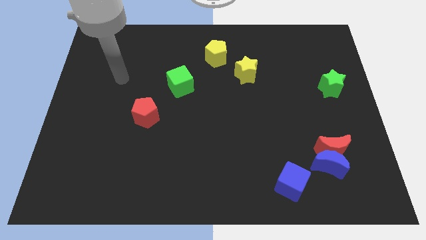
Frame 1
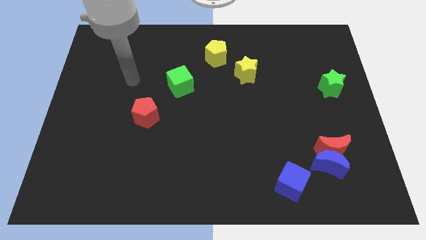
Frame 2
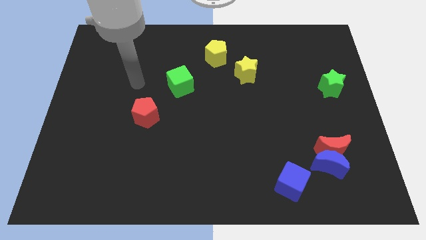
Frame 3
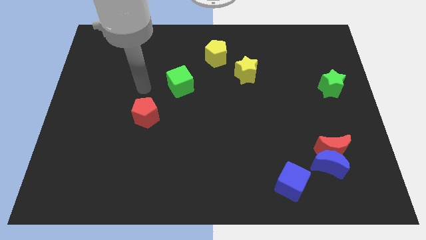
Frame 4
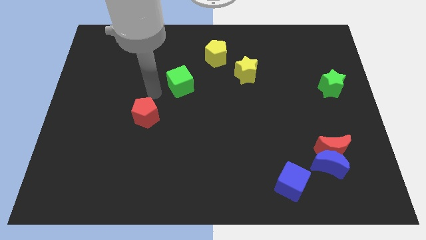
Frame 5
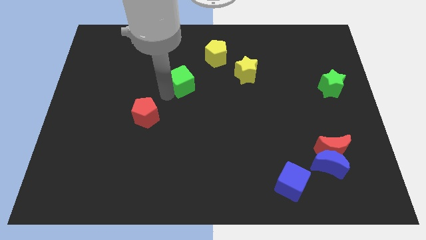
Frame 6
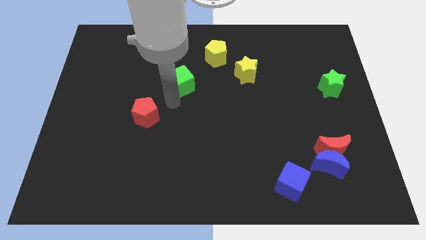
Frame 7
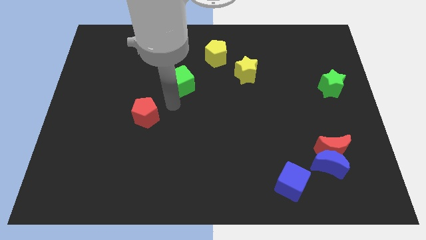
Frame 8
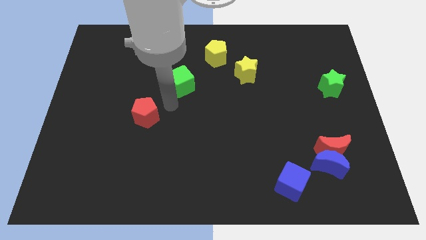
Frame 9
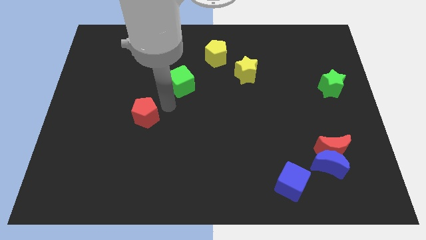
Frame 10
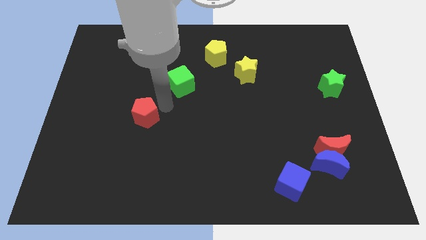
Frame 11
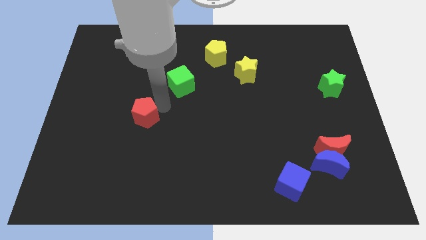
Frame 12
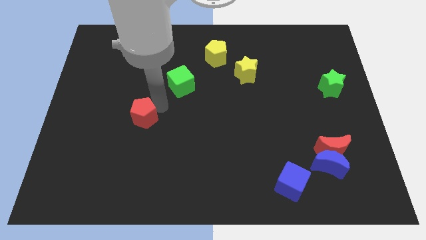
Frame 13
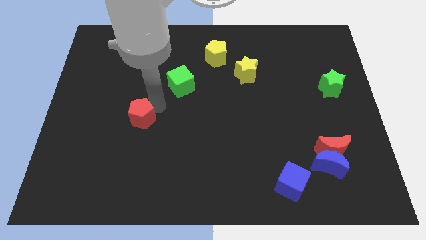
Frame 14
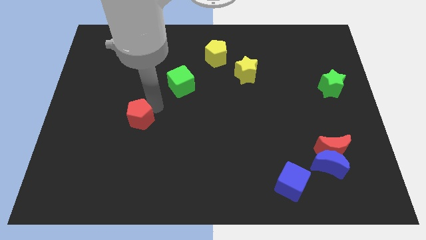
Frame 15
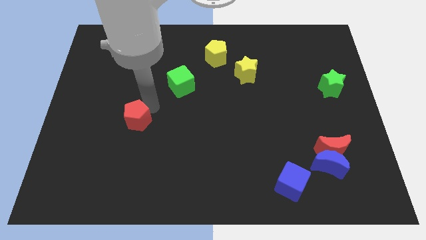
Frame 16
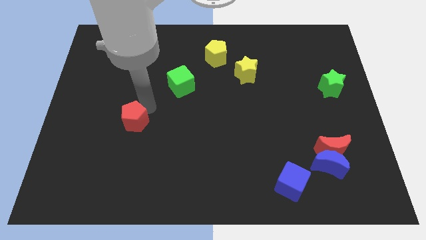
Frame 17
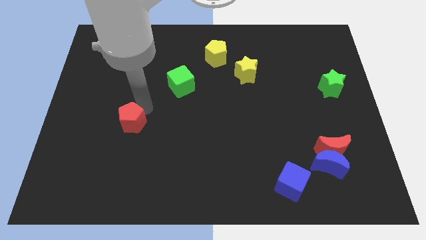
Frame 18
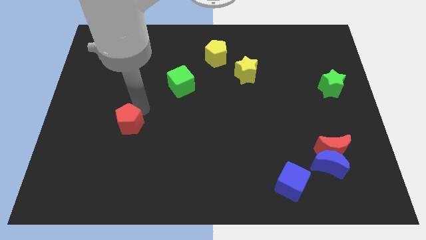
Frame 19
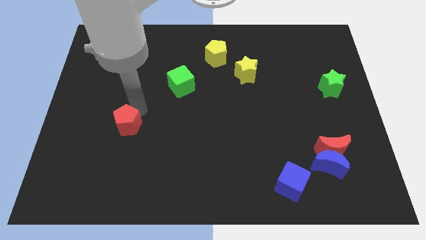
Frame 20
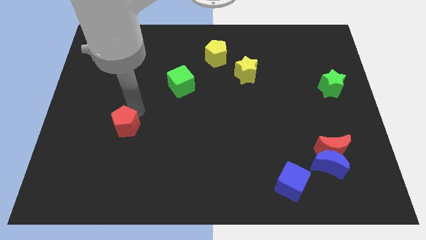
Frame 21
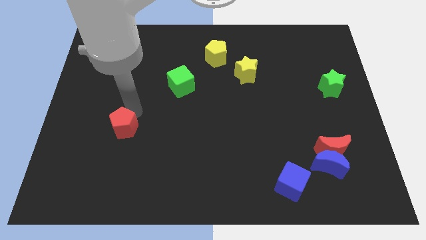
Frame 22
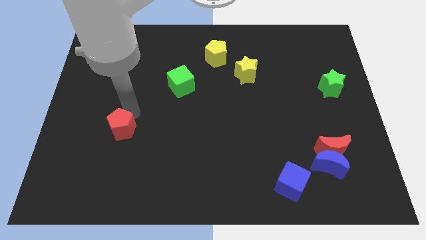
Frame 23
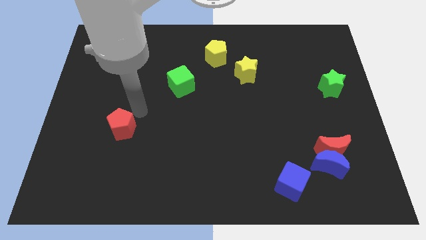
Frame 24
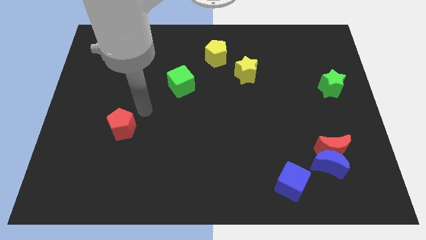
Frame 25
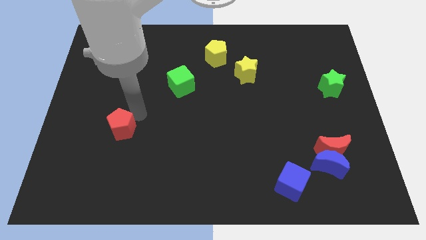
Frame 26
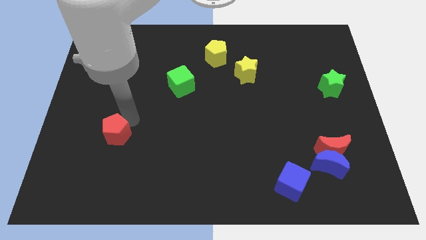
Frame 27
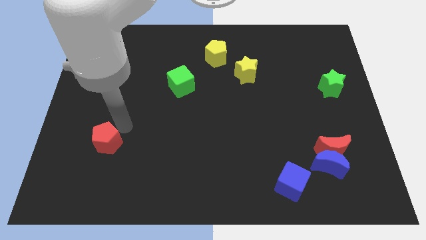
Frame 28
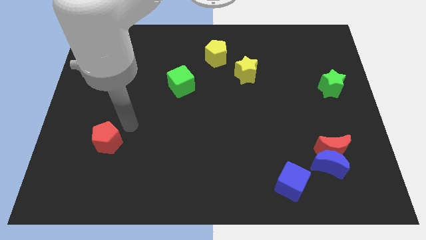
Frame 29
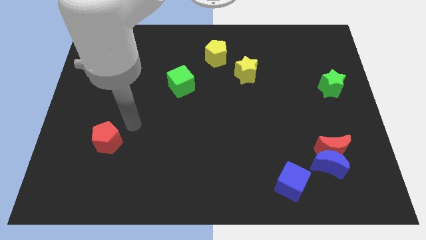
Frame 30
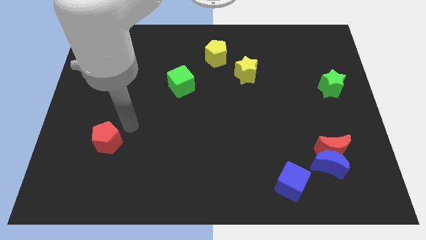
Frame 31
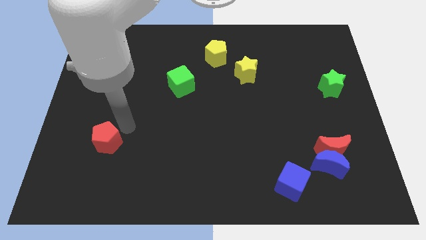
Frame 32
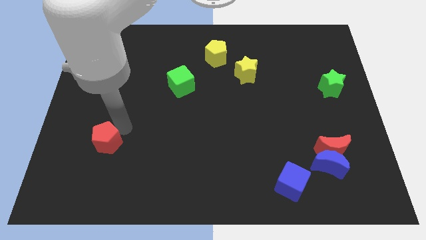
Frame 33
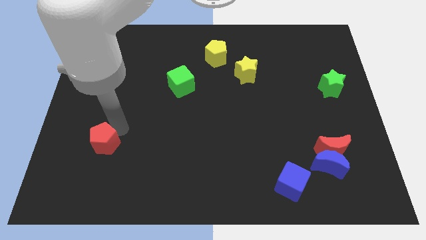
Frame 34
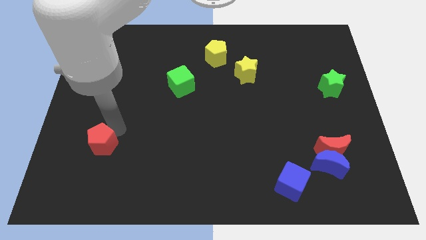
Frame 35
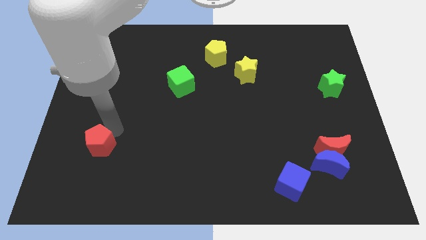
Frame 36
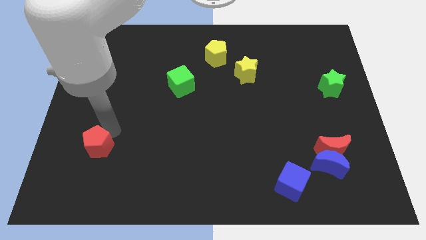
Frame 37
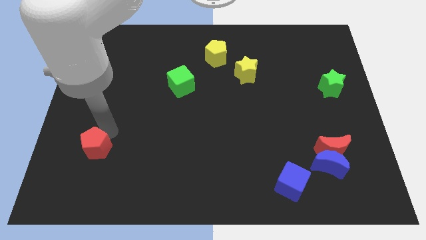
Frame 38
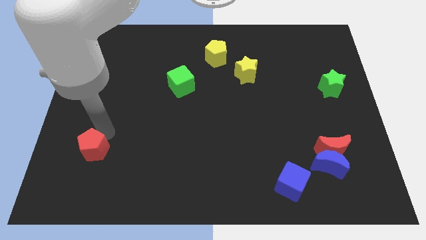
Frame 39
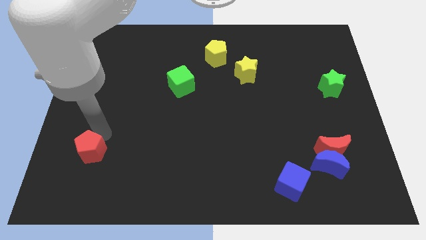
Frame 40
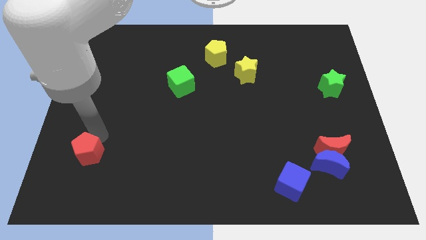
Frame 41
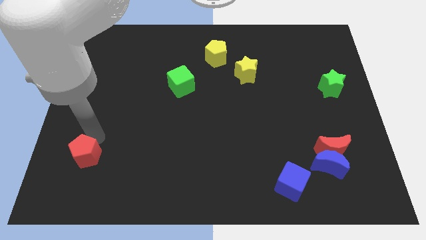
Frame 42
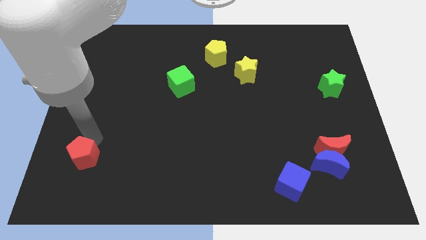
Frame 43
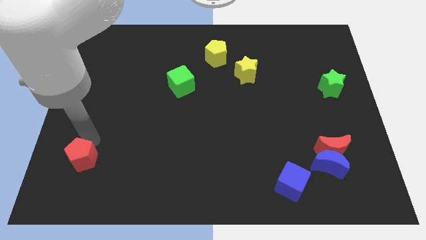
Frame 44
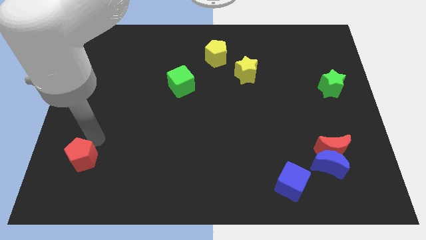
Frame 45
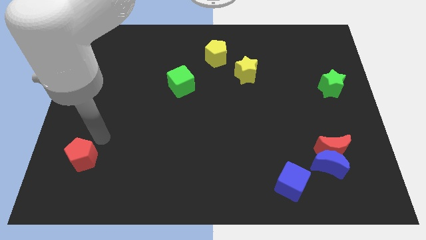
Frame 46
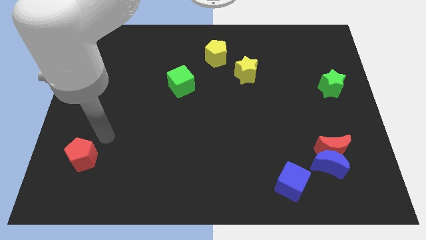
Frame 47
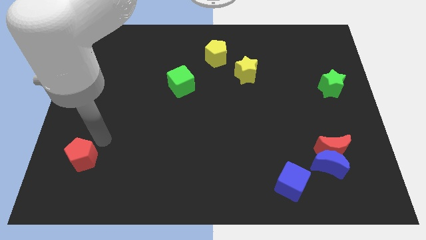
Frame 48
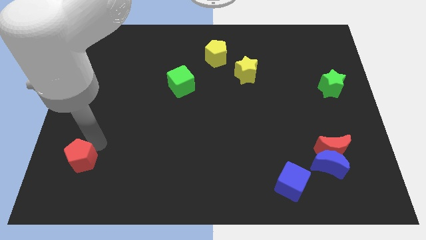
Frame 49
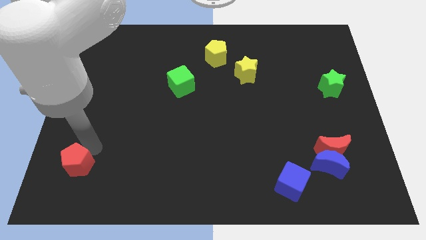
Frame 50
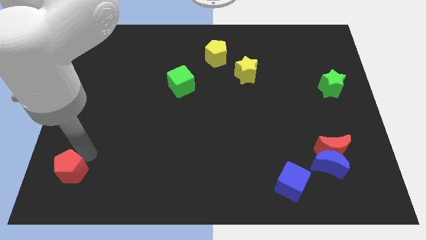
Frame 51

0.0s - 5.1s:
slide the red pentagon to the lower left corner

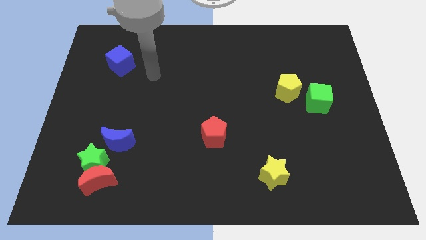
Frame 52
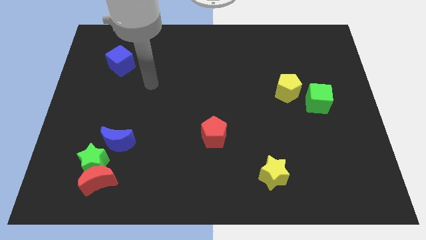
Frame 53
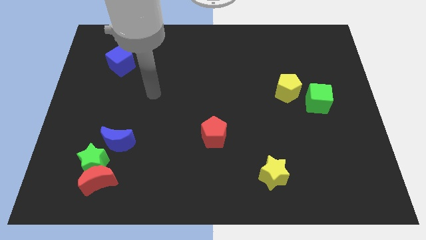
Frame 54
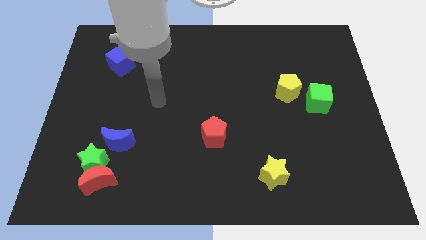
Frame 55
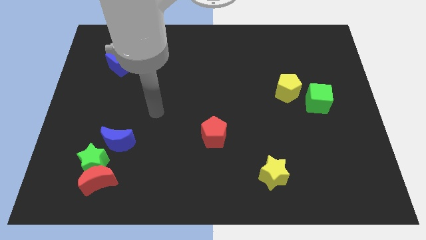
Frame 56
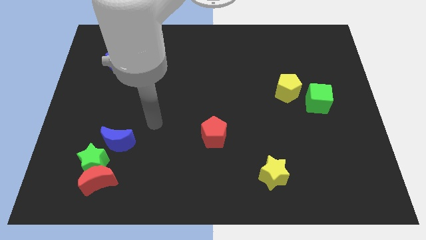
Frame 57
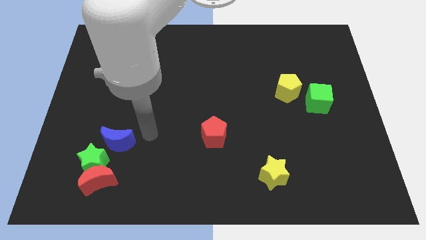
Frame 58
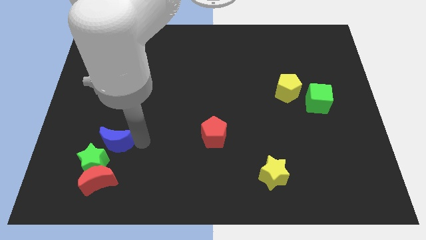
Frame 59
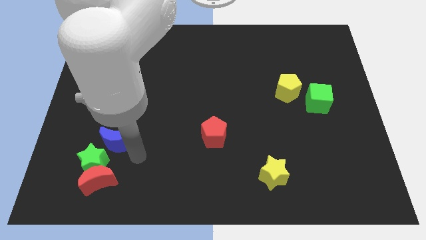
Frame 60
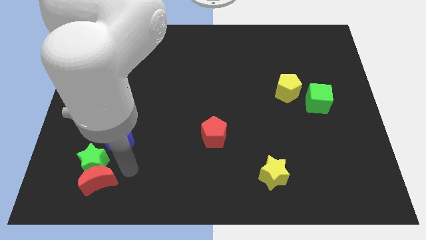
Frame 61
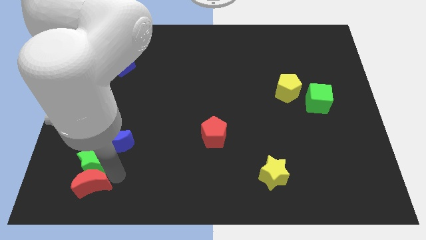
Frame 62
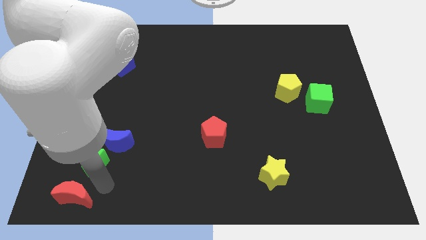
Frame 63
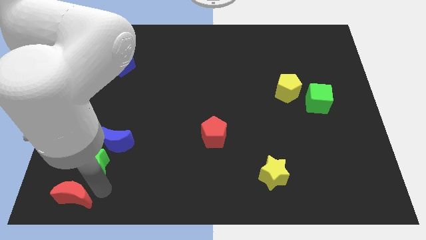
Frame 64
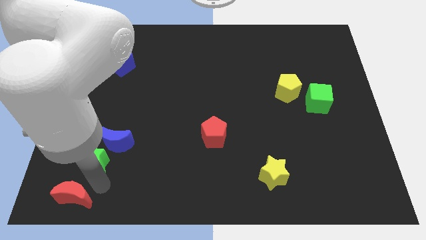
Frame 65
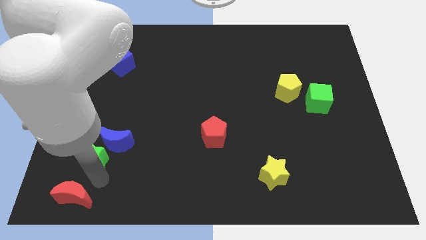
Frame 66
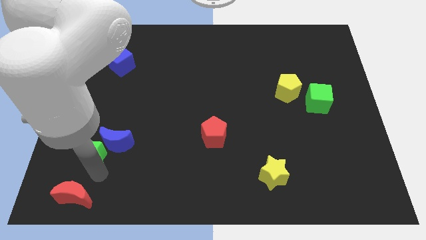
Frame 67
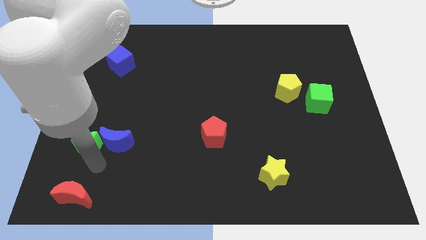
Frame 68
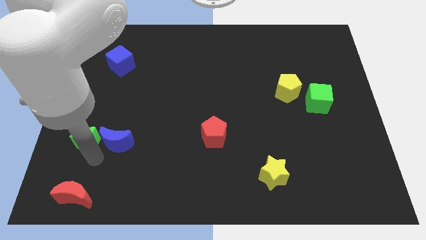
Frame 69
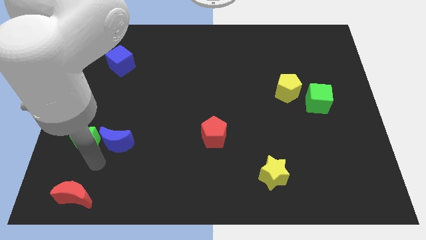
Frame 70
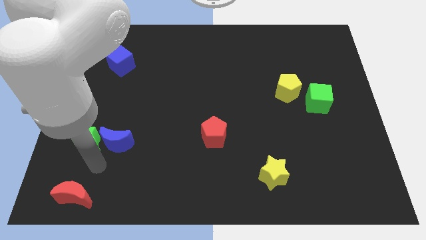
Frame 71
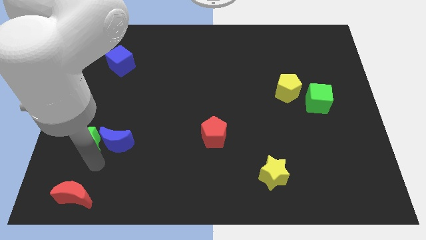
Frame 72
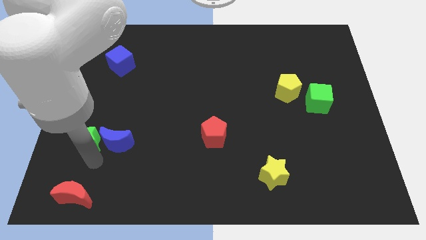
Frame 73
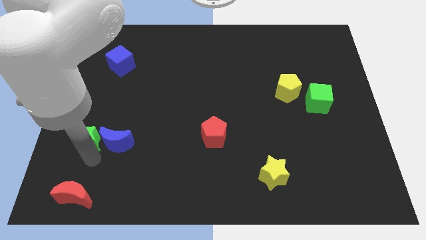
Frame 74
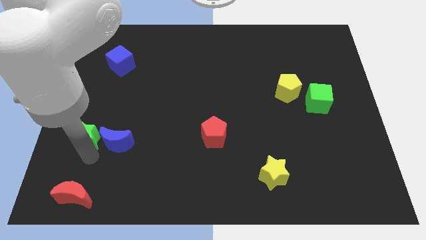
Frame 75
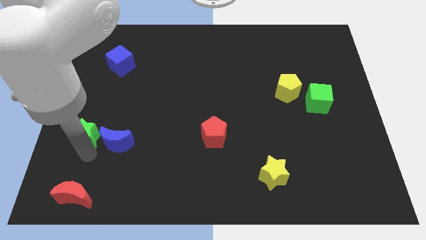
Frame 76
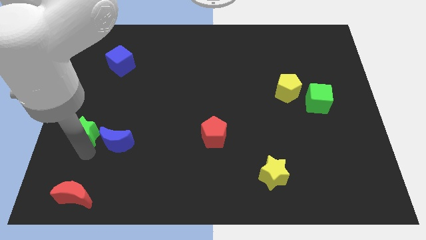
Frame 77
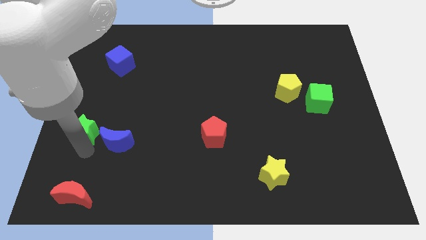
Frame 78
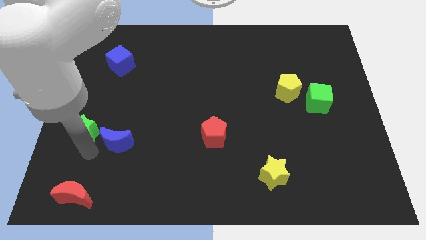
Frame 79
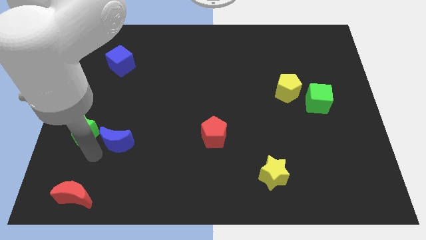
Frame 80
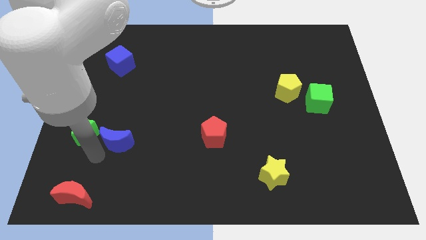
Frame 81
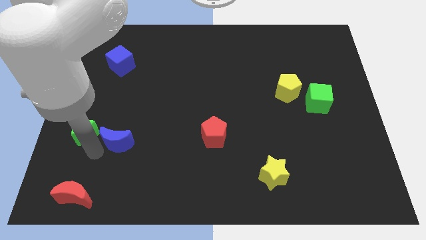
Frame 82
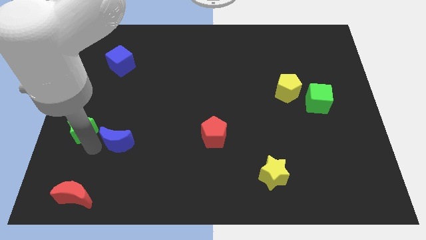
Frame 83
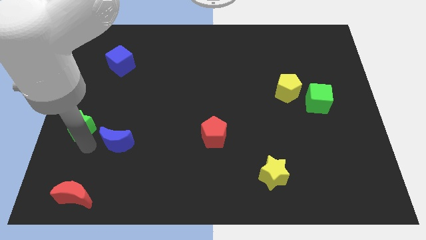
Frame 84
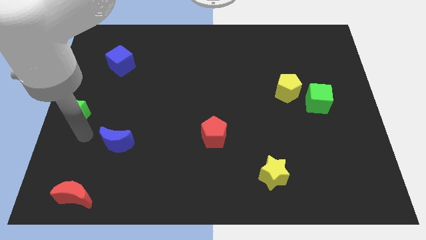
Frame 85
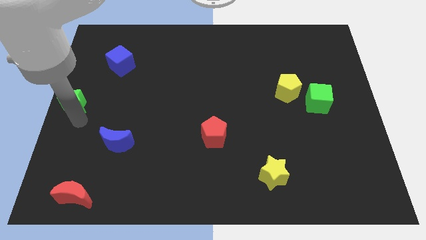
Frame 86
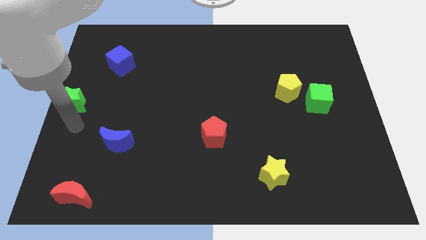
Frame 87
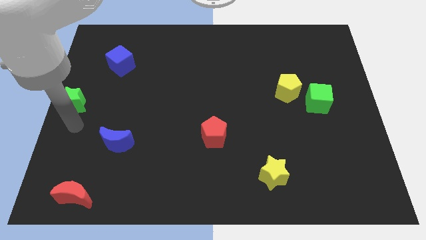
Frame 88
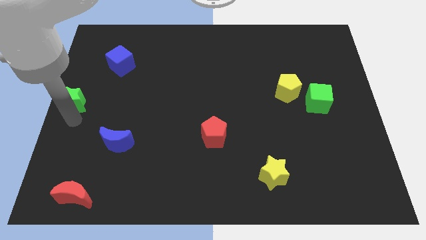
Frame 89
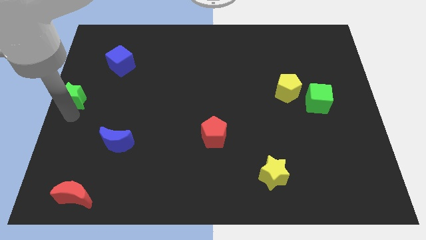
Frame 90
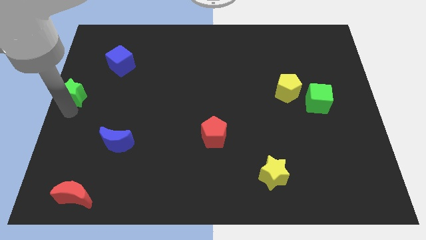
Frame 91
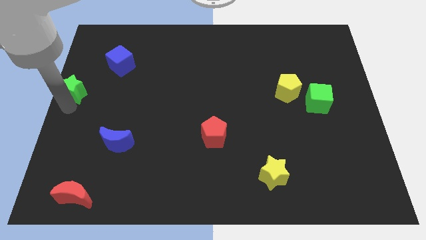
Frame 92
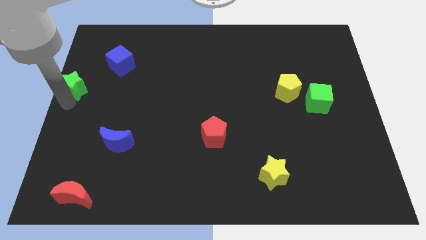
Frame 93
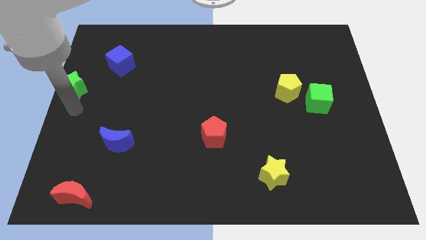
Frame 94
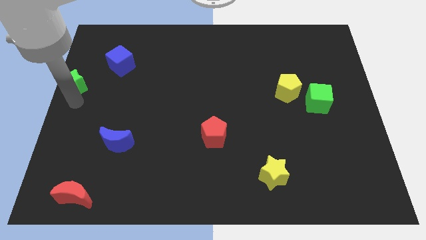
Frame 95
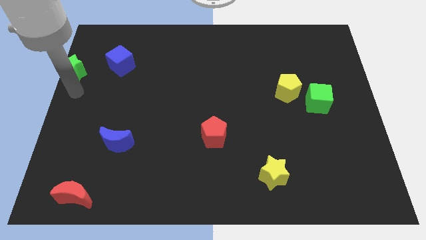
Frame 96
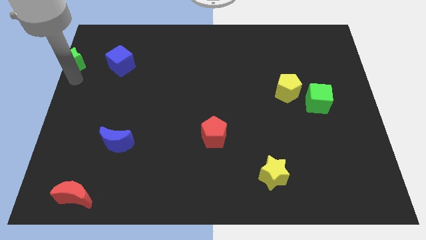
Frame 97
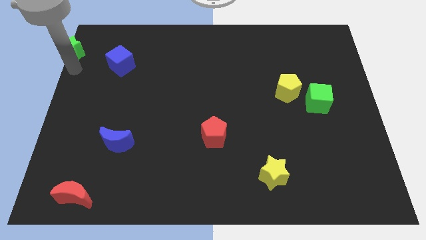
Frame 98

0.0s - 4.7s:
push the green star to the top left of the board
